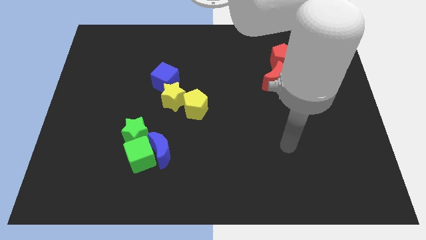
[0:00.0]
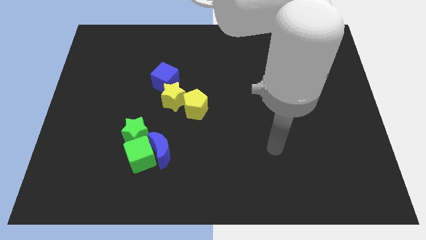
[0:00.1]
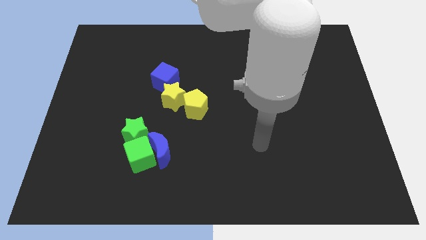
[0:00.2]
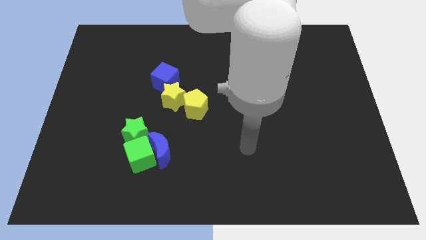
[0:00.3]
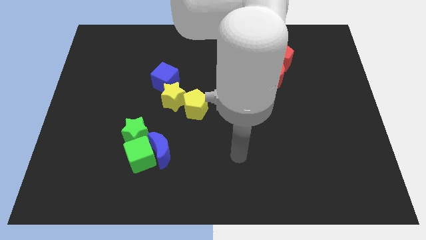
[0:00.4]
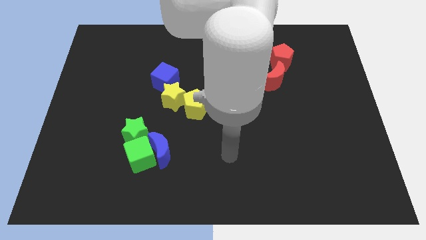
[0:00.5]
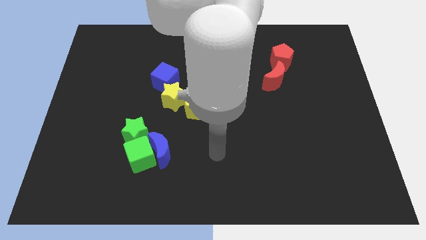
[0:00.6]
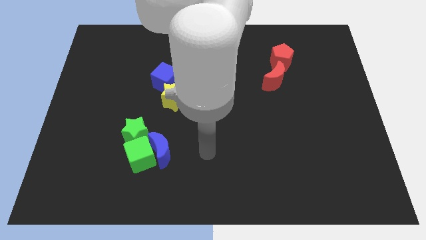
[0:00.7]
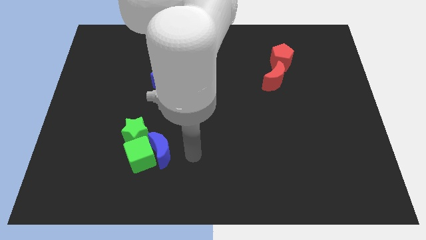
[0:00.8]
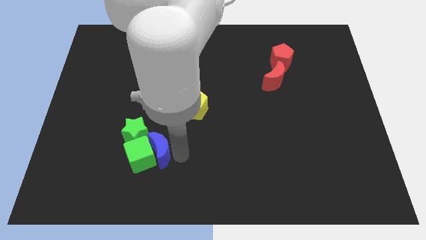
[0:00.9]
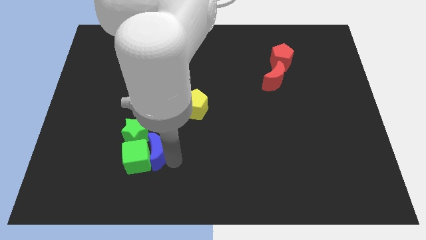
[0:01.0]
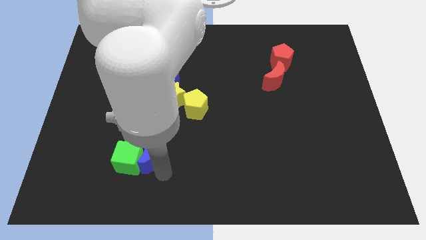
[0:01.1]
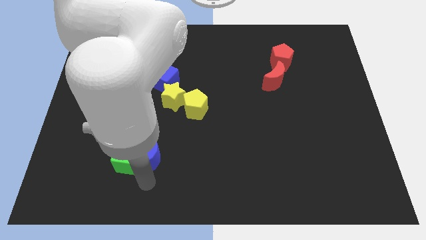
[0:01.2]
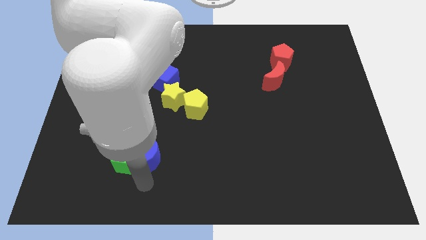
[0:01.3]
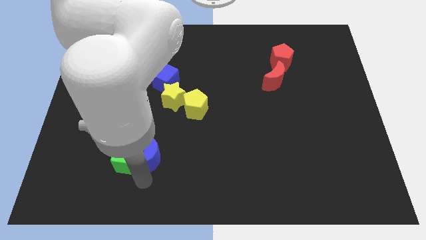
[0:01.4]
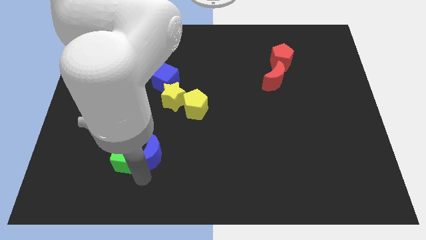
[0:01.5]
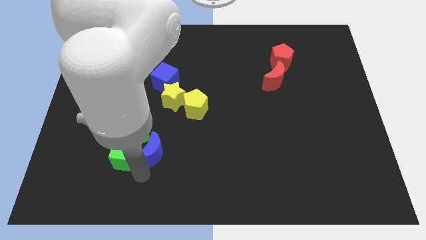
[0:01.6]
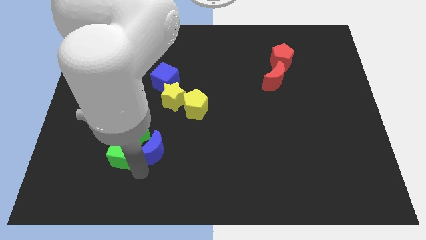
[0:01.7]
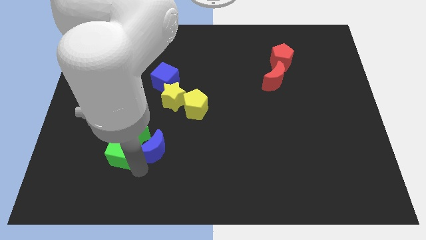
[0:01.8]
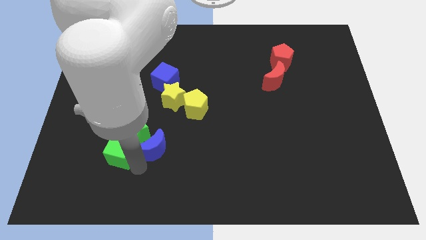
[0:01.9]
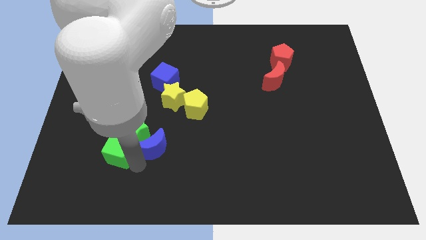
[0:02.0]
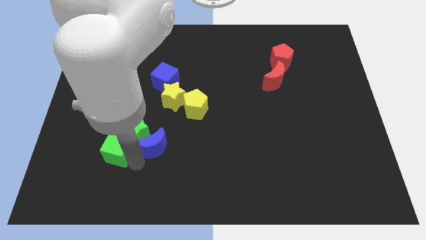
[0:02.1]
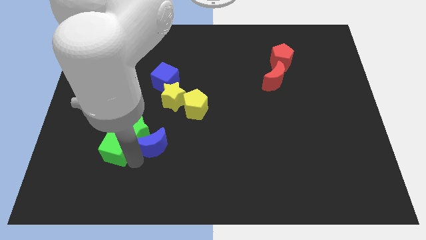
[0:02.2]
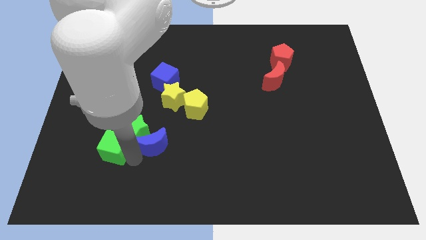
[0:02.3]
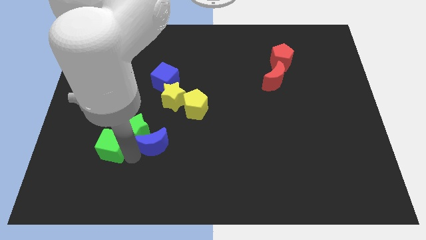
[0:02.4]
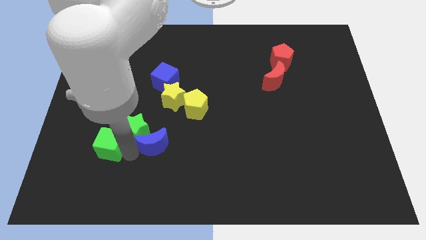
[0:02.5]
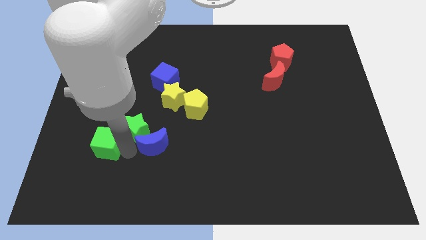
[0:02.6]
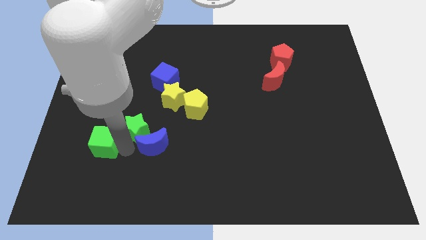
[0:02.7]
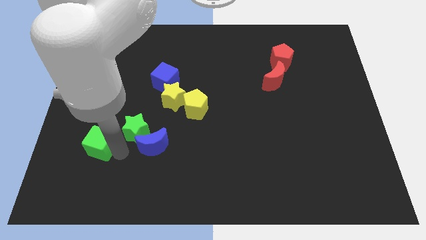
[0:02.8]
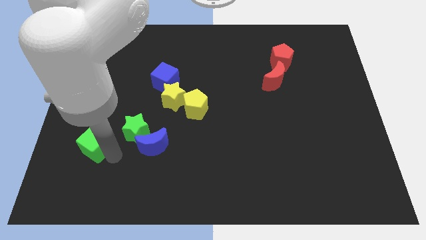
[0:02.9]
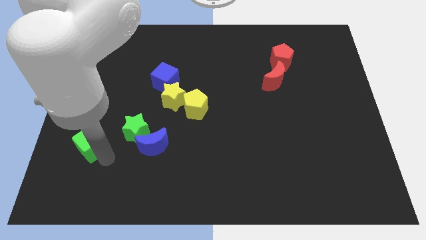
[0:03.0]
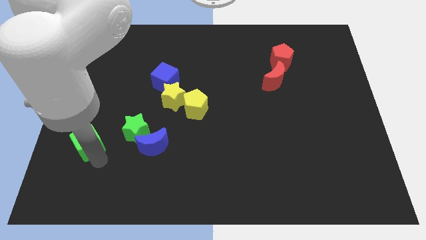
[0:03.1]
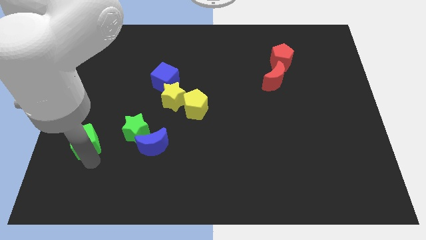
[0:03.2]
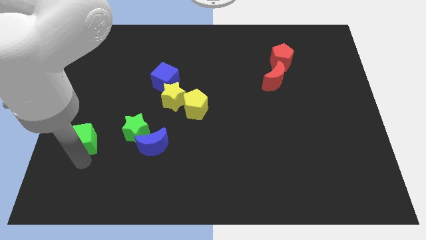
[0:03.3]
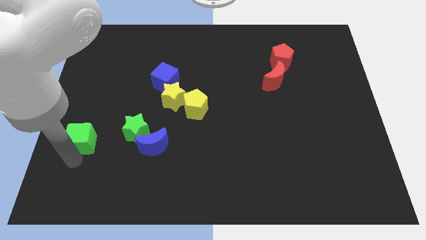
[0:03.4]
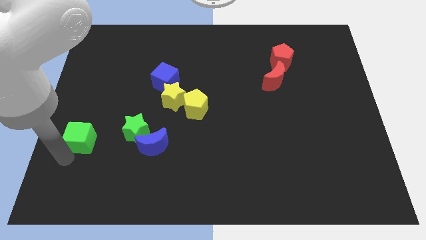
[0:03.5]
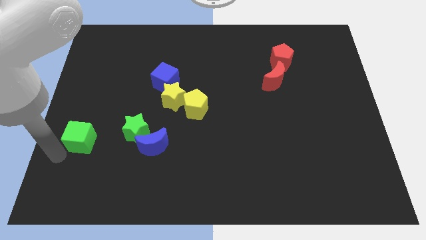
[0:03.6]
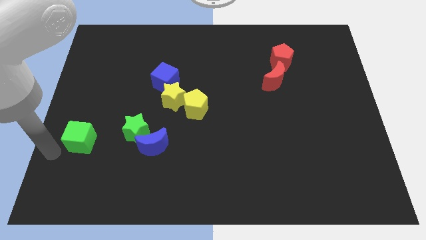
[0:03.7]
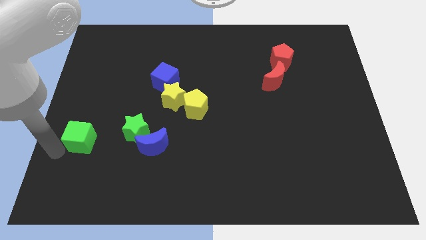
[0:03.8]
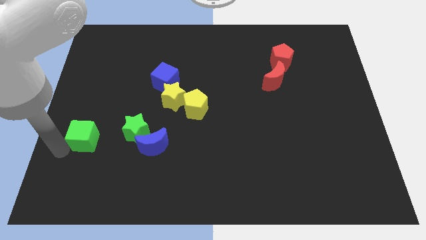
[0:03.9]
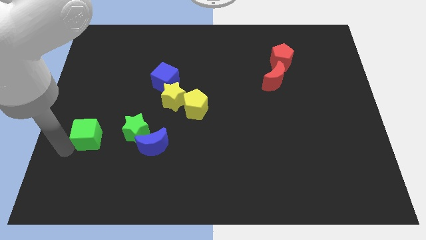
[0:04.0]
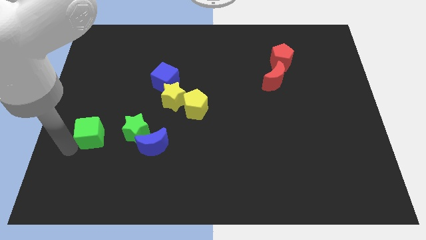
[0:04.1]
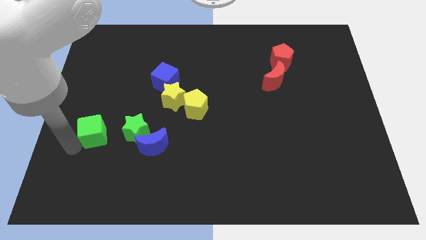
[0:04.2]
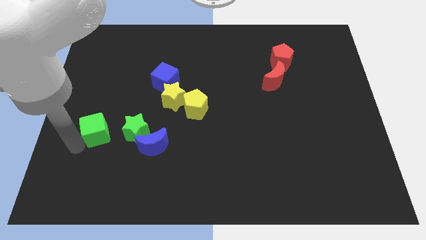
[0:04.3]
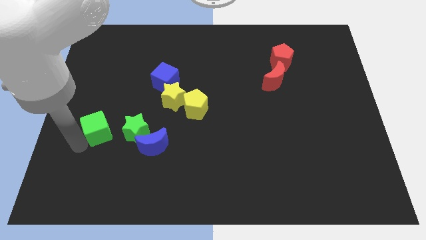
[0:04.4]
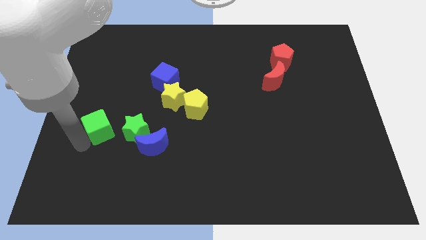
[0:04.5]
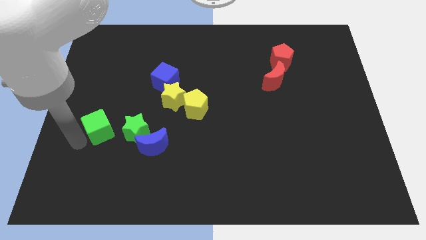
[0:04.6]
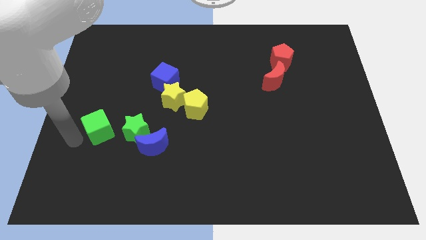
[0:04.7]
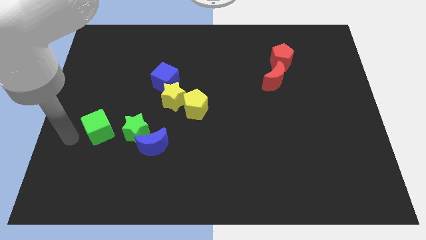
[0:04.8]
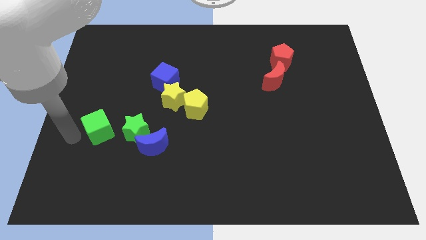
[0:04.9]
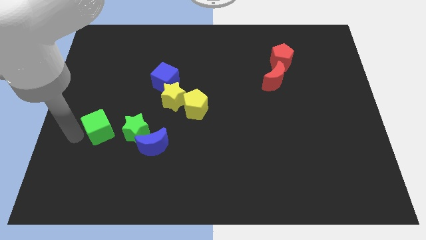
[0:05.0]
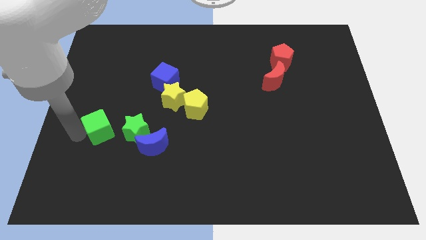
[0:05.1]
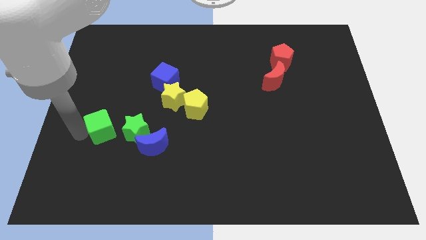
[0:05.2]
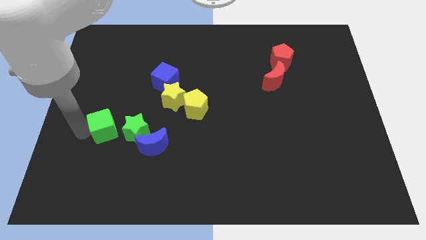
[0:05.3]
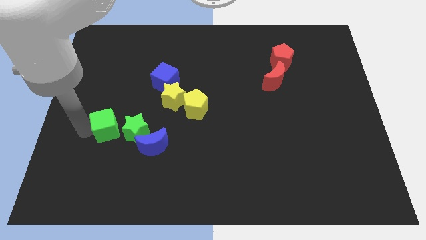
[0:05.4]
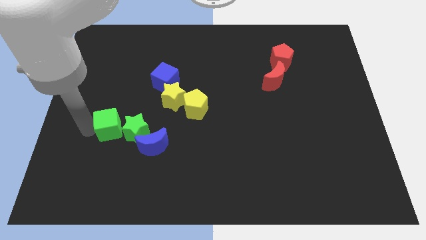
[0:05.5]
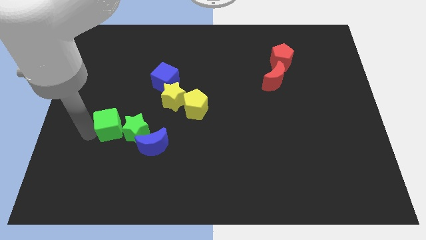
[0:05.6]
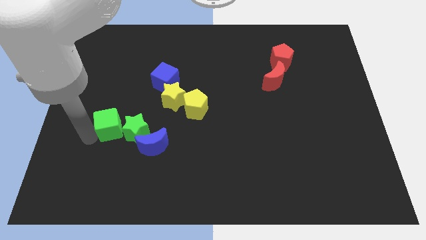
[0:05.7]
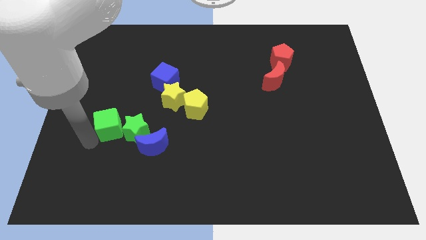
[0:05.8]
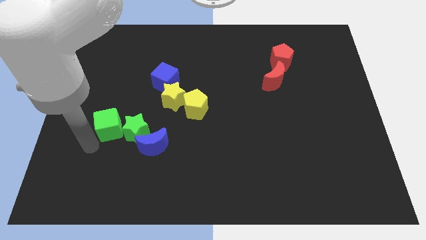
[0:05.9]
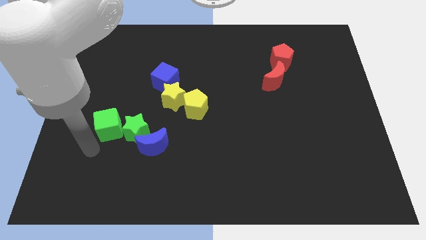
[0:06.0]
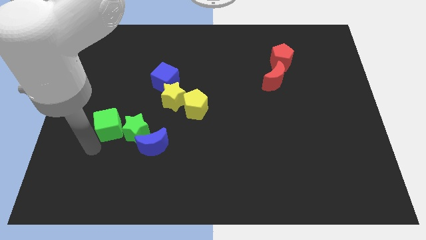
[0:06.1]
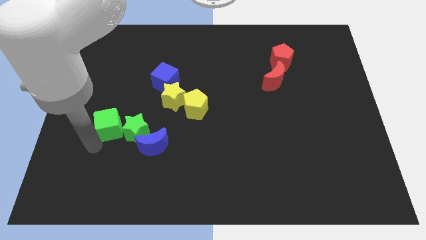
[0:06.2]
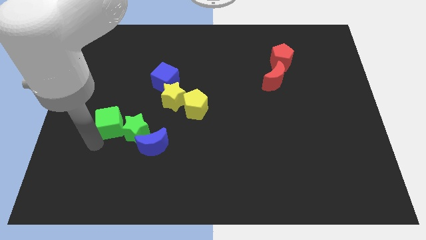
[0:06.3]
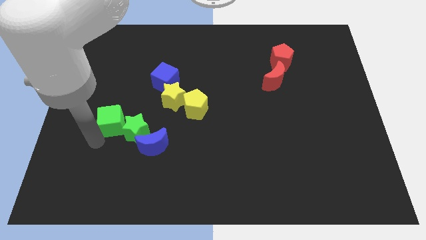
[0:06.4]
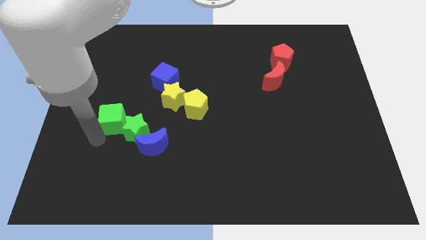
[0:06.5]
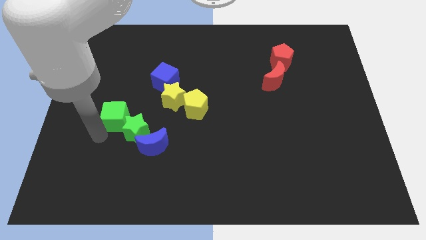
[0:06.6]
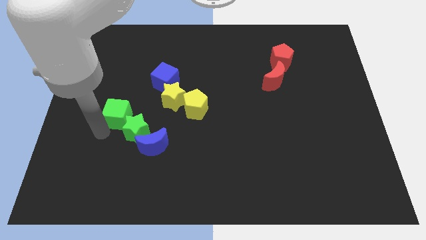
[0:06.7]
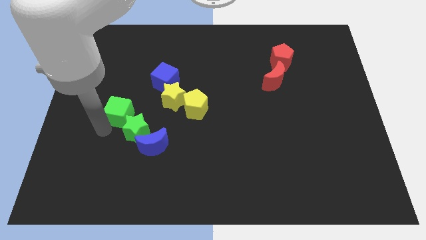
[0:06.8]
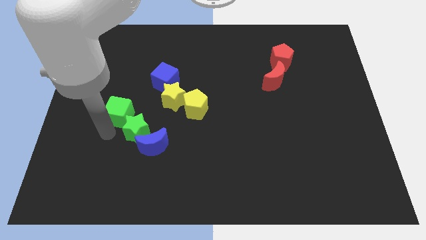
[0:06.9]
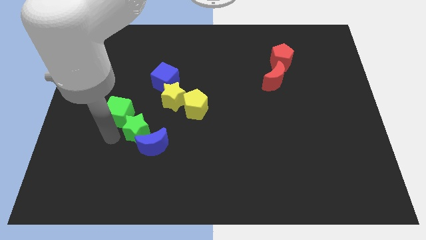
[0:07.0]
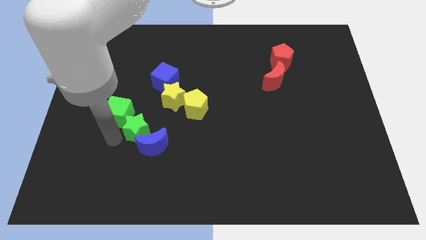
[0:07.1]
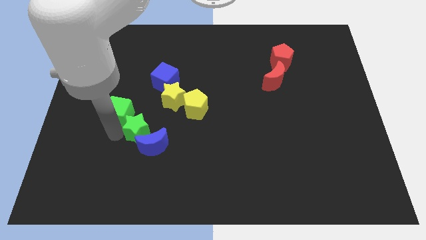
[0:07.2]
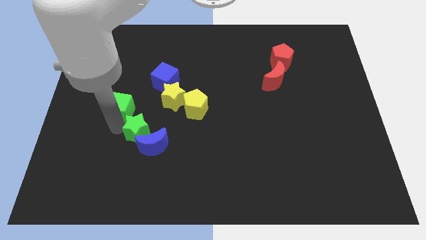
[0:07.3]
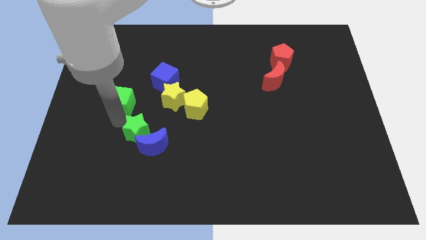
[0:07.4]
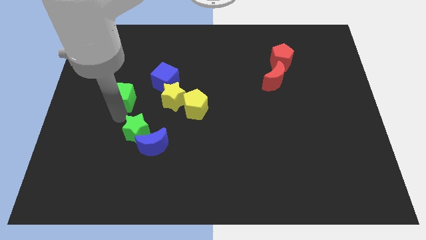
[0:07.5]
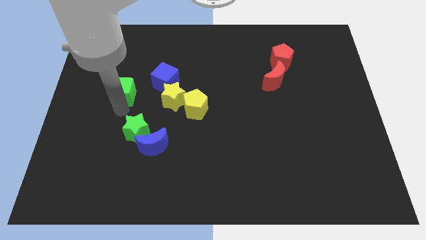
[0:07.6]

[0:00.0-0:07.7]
push the green cube to the left side of the blue cube
